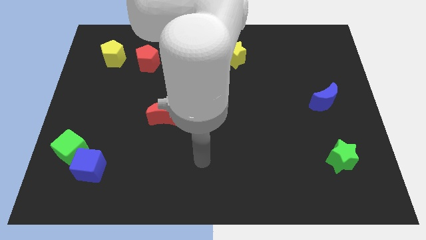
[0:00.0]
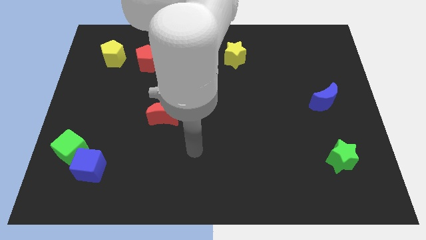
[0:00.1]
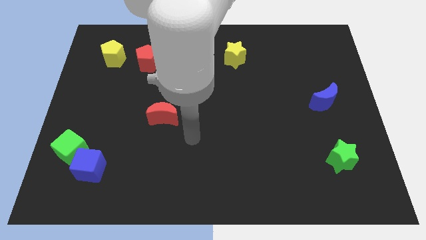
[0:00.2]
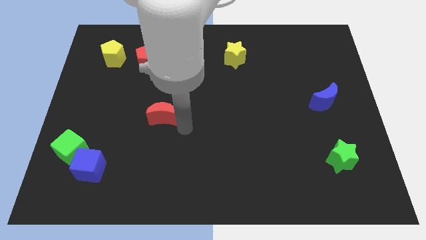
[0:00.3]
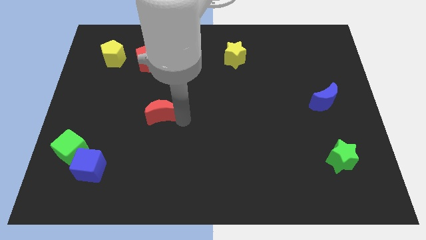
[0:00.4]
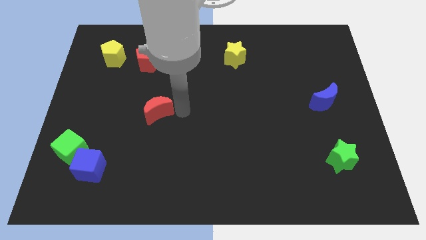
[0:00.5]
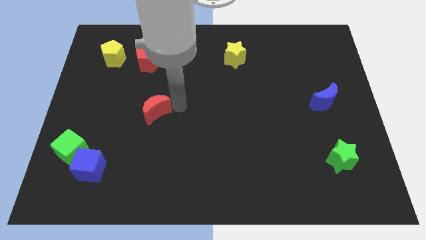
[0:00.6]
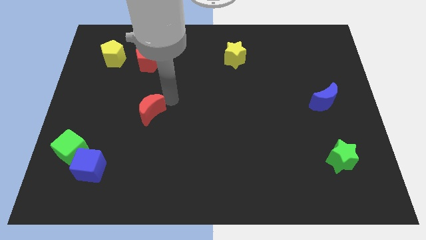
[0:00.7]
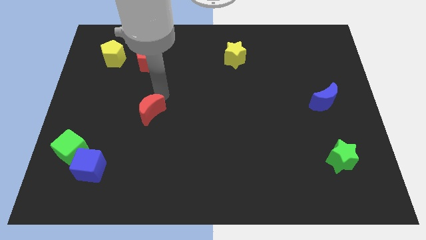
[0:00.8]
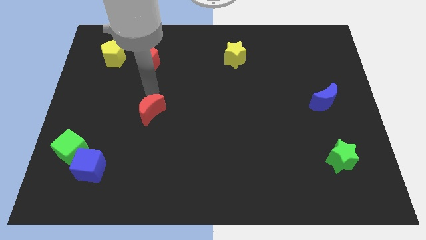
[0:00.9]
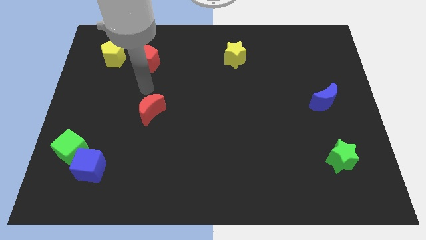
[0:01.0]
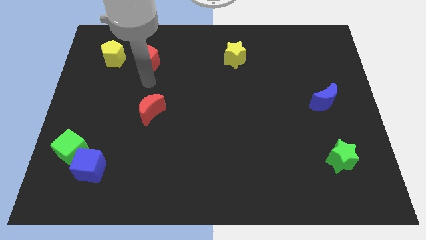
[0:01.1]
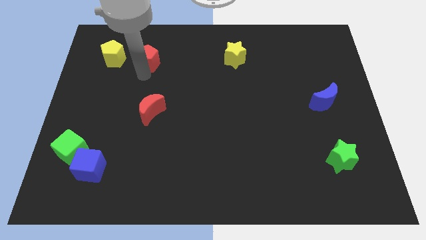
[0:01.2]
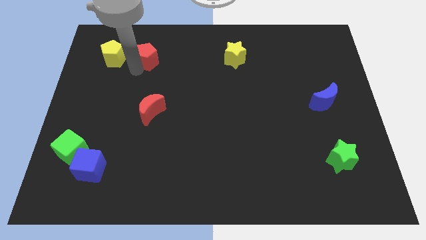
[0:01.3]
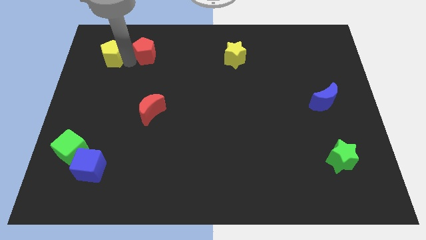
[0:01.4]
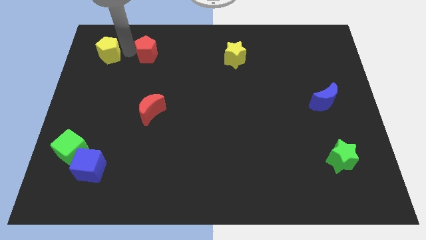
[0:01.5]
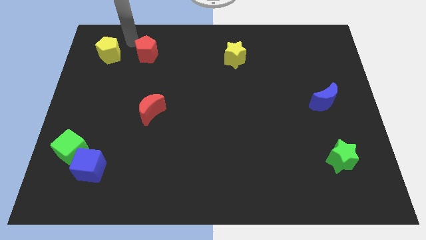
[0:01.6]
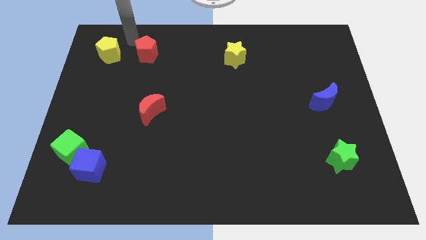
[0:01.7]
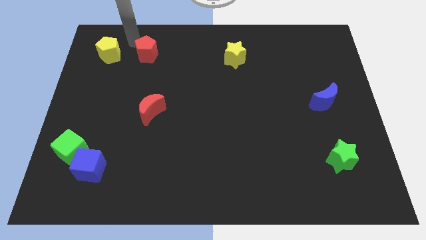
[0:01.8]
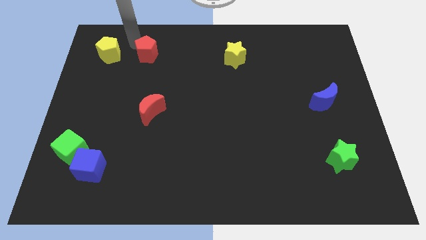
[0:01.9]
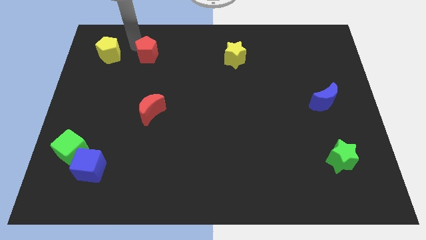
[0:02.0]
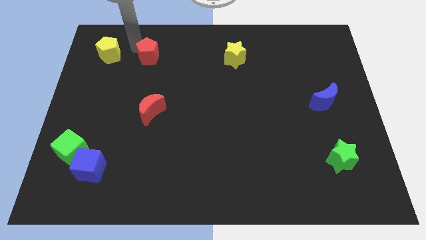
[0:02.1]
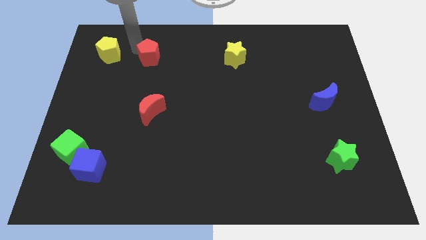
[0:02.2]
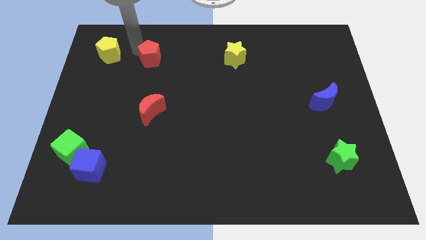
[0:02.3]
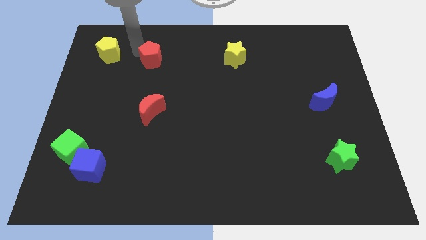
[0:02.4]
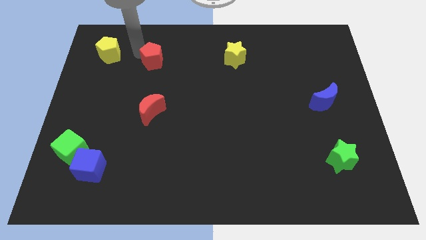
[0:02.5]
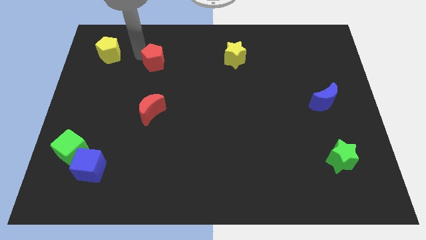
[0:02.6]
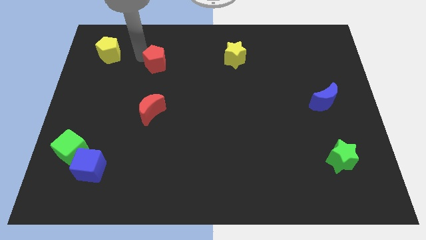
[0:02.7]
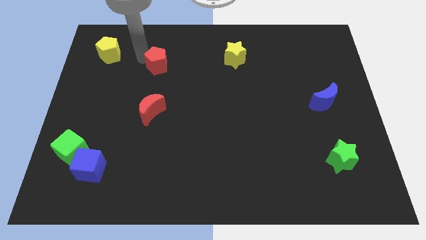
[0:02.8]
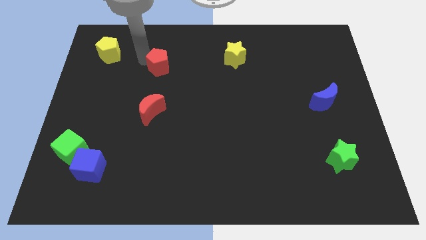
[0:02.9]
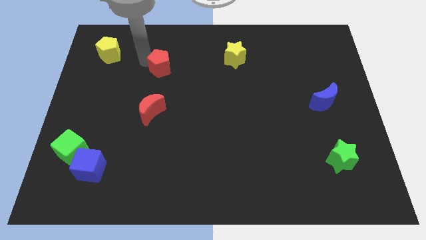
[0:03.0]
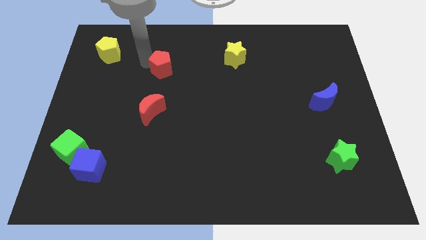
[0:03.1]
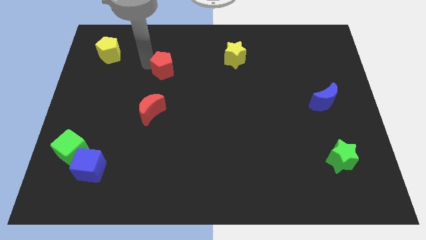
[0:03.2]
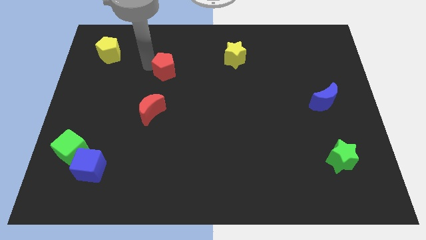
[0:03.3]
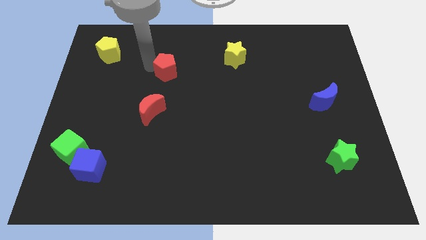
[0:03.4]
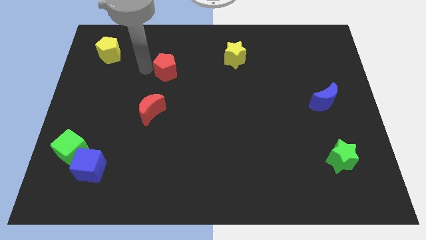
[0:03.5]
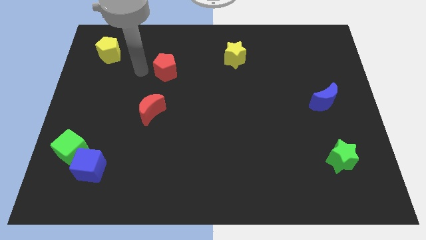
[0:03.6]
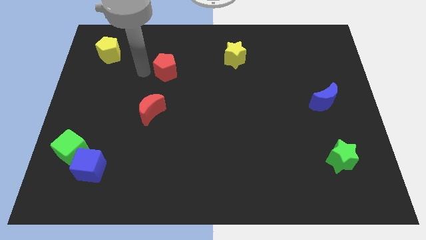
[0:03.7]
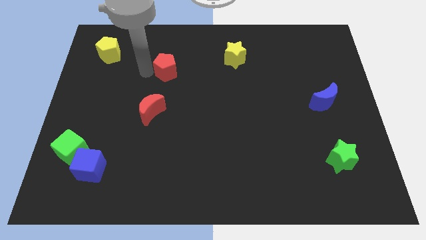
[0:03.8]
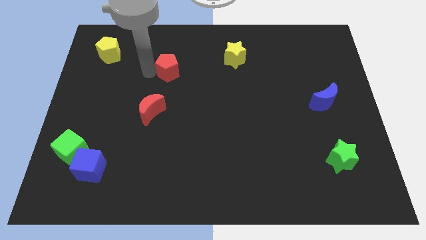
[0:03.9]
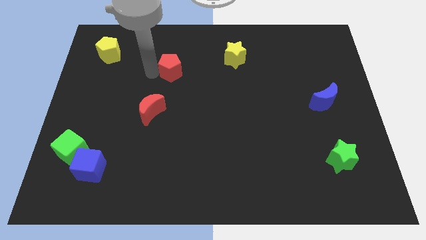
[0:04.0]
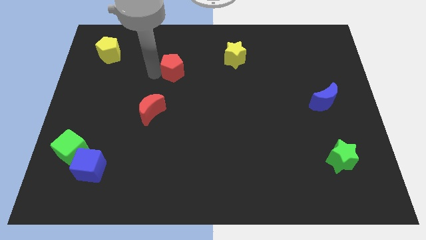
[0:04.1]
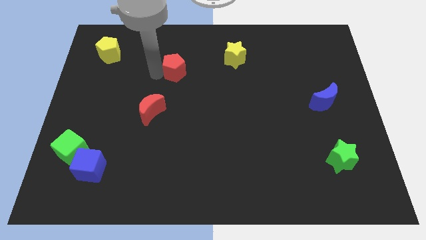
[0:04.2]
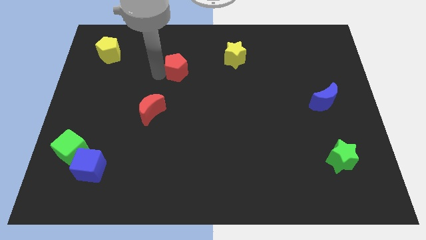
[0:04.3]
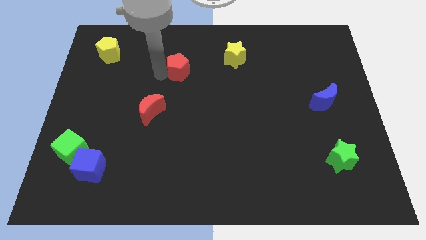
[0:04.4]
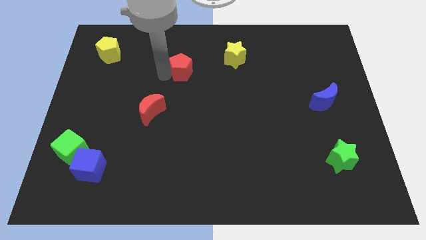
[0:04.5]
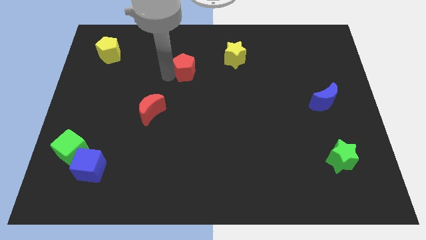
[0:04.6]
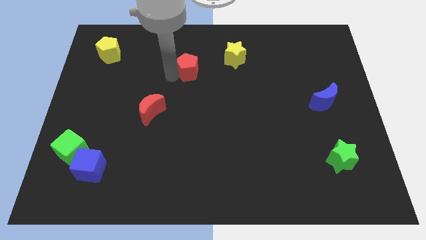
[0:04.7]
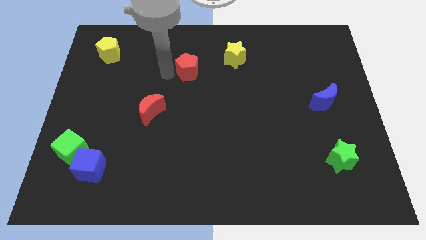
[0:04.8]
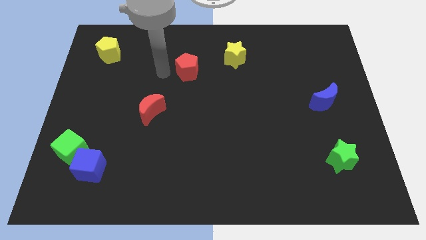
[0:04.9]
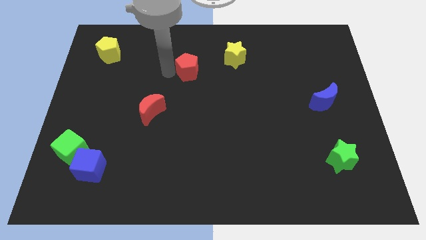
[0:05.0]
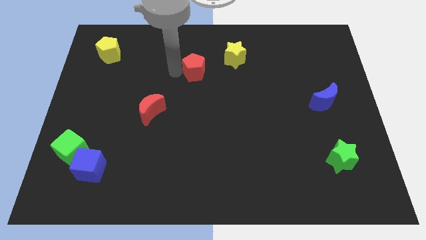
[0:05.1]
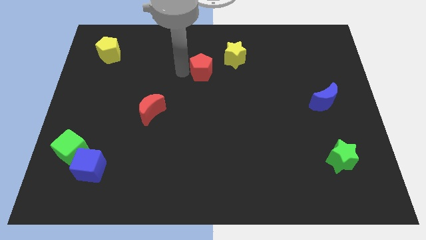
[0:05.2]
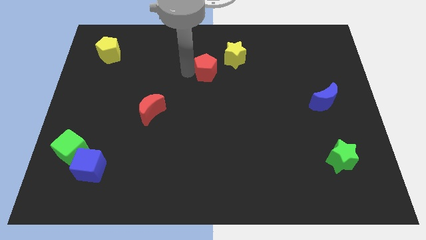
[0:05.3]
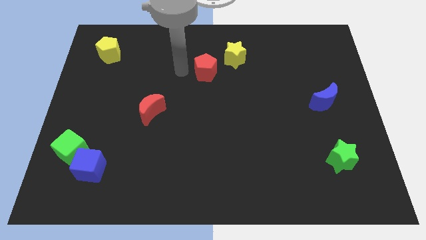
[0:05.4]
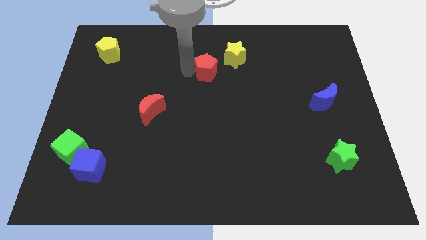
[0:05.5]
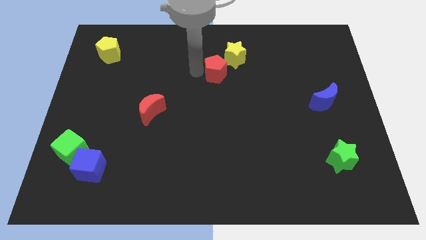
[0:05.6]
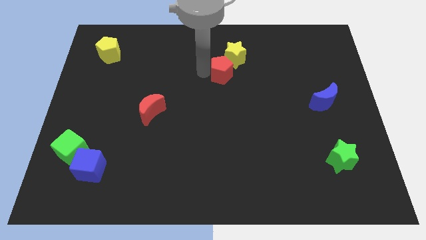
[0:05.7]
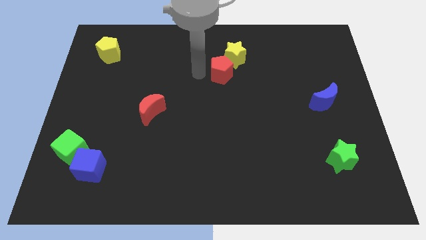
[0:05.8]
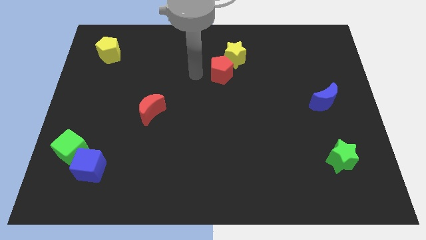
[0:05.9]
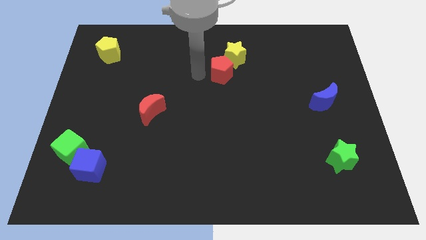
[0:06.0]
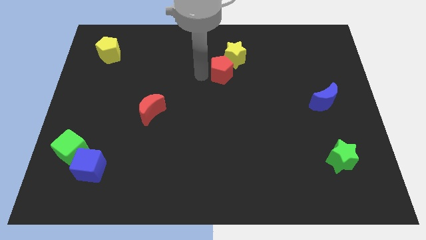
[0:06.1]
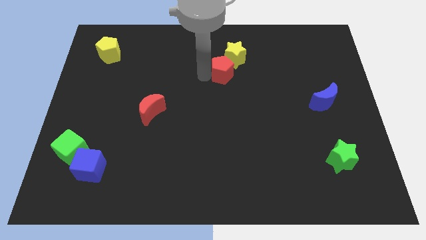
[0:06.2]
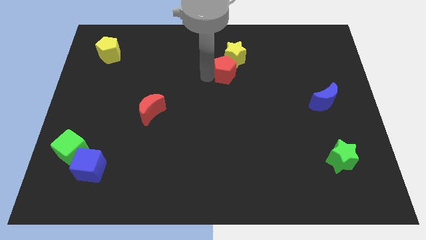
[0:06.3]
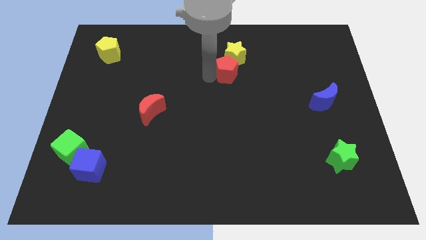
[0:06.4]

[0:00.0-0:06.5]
slide the red pentagon right

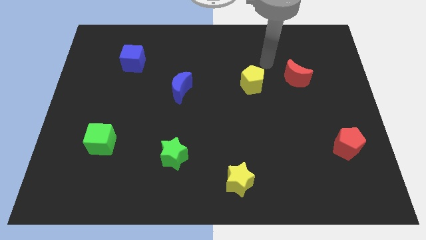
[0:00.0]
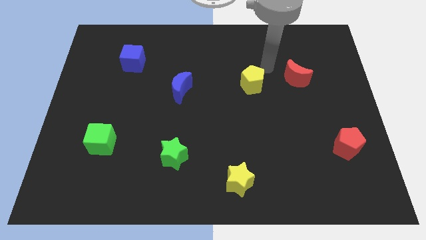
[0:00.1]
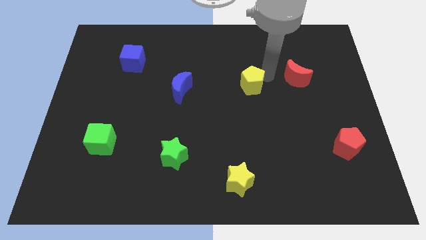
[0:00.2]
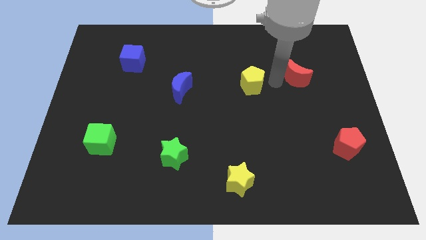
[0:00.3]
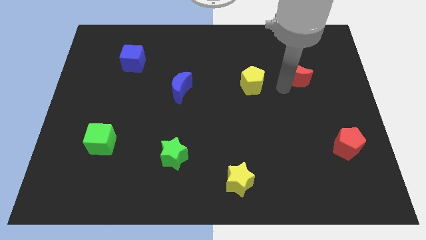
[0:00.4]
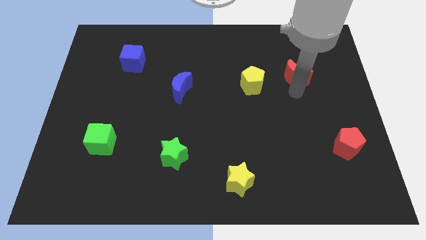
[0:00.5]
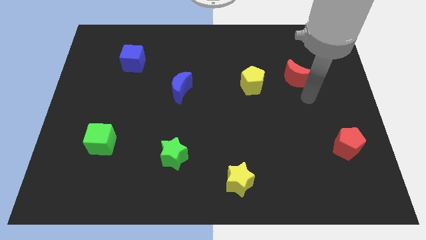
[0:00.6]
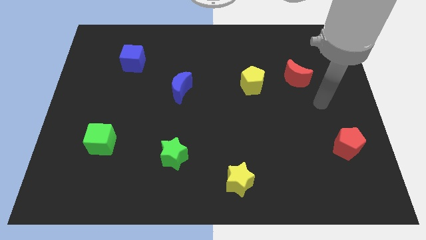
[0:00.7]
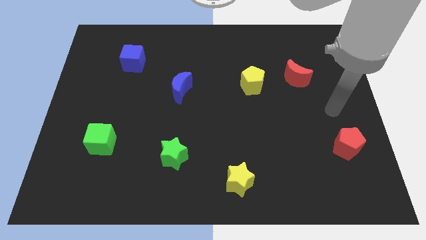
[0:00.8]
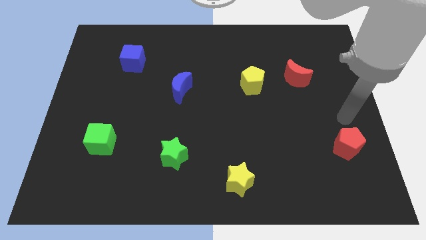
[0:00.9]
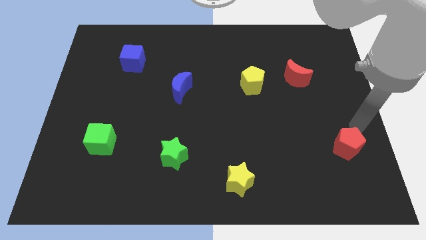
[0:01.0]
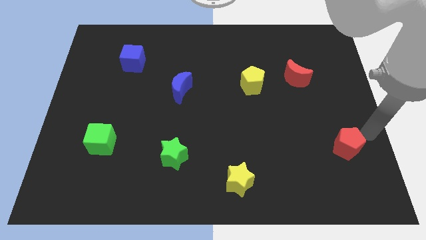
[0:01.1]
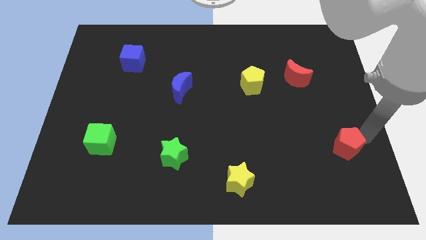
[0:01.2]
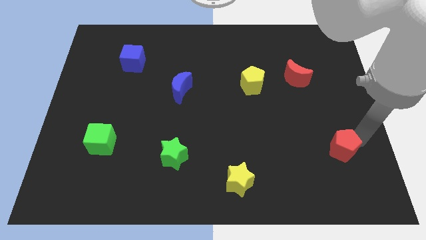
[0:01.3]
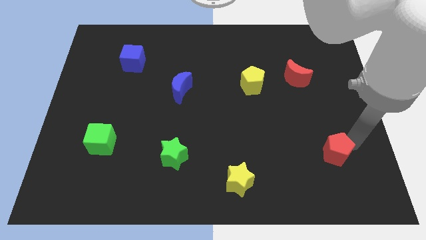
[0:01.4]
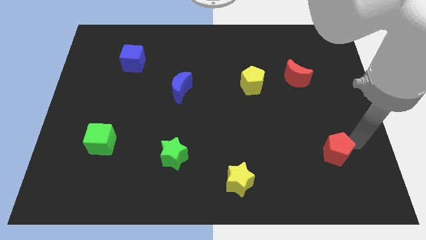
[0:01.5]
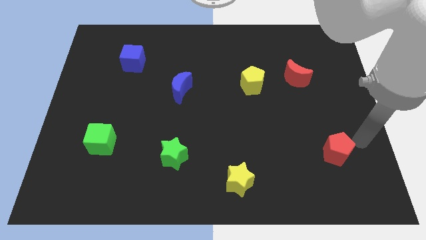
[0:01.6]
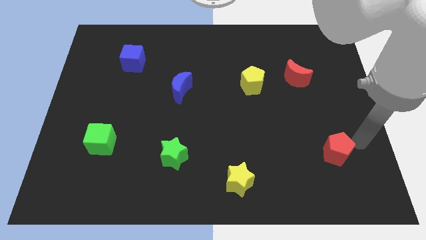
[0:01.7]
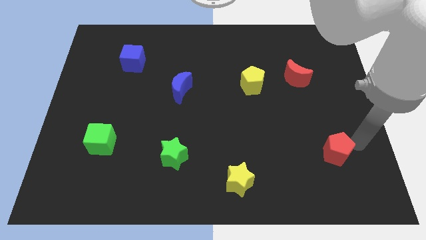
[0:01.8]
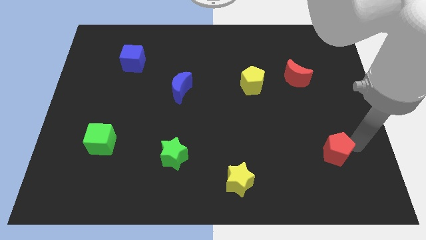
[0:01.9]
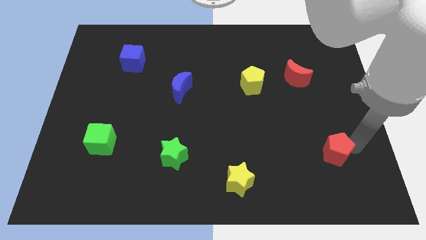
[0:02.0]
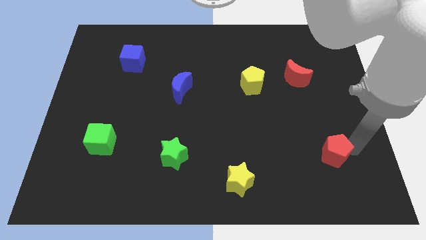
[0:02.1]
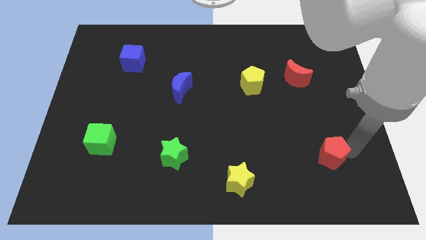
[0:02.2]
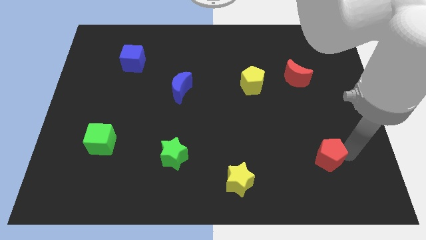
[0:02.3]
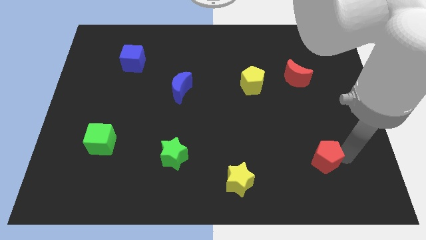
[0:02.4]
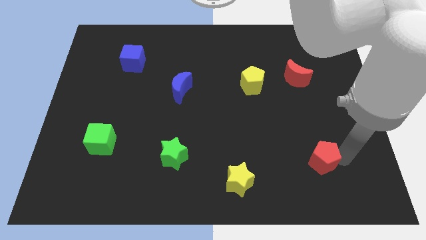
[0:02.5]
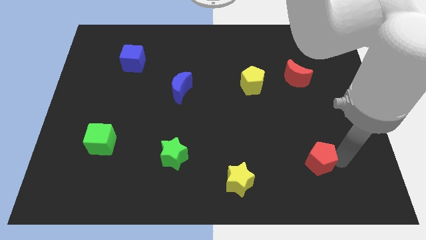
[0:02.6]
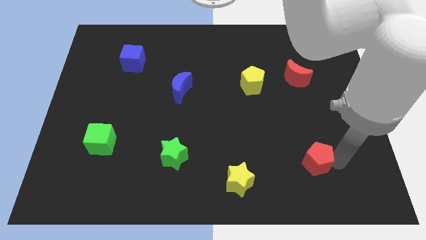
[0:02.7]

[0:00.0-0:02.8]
move the red pentagon somewhat left
